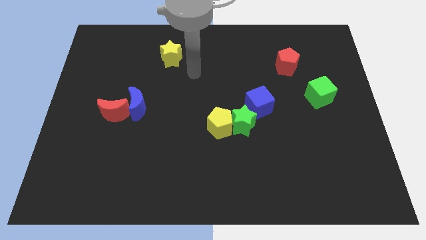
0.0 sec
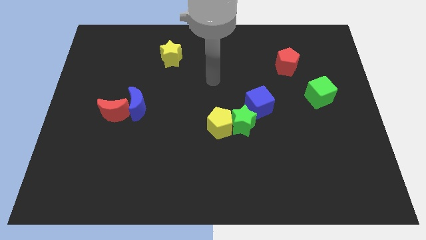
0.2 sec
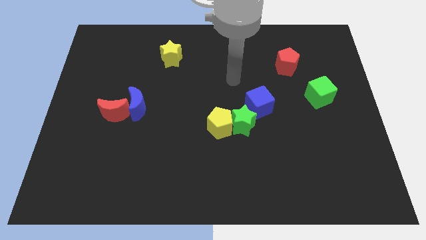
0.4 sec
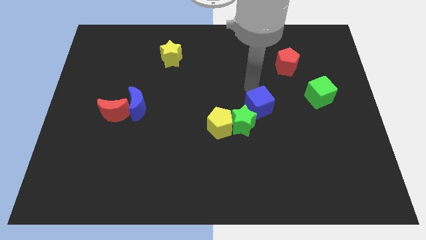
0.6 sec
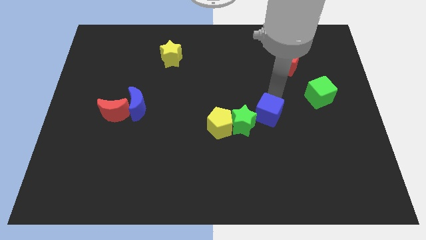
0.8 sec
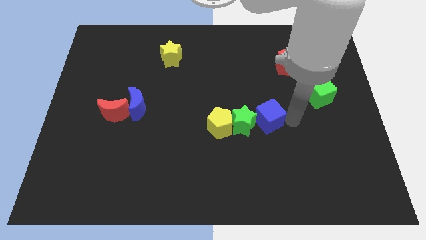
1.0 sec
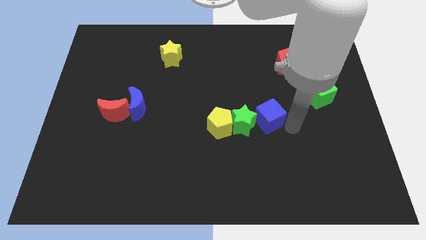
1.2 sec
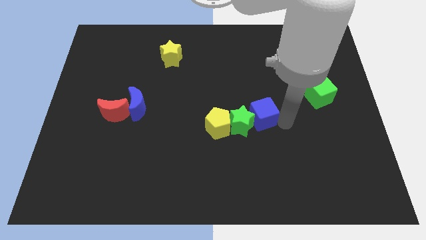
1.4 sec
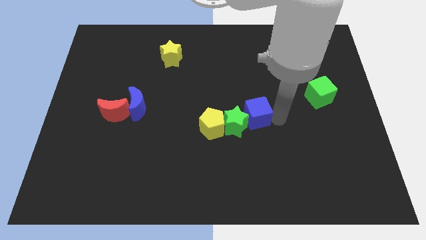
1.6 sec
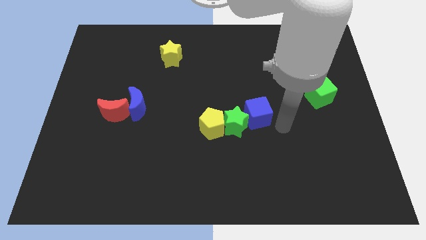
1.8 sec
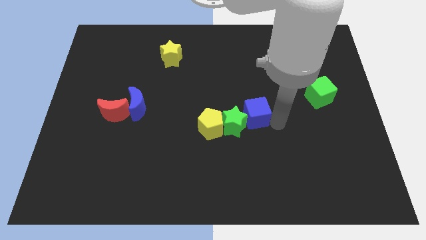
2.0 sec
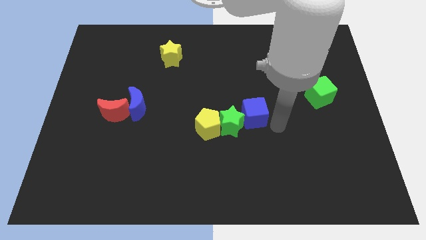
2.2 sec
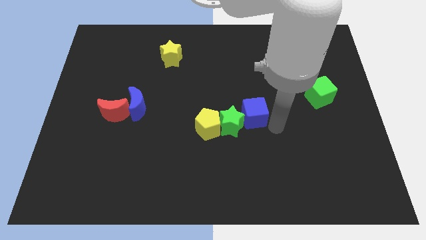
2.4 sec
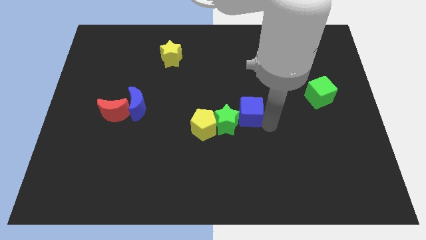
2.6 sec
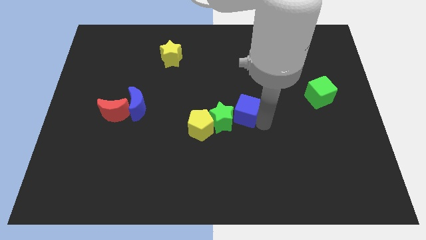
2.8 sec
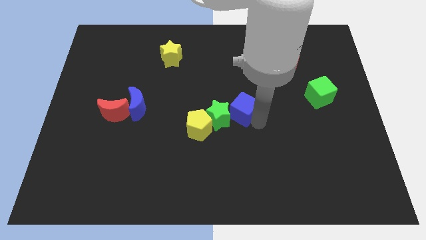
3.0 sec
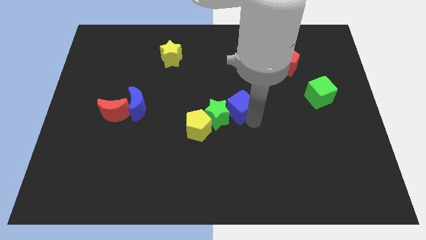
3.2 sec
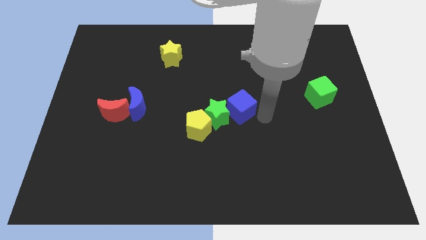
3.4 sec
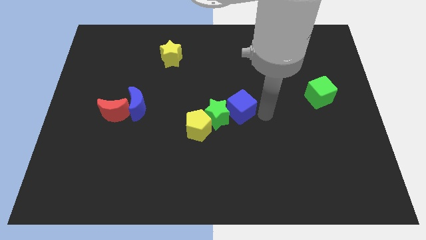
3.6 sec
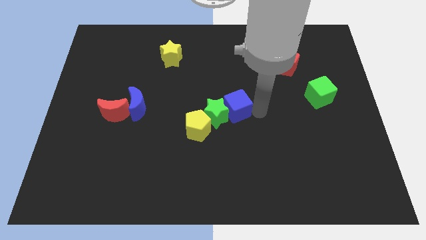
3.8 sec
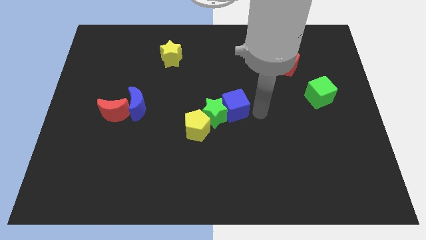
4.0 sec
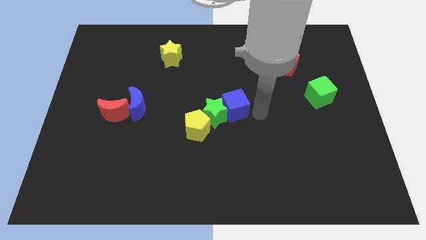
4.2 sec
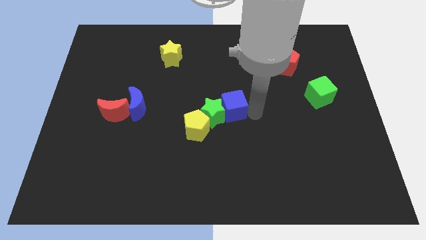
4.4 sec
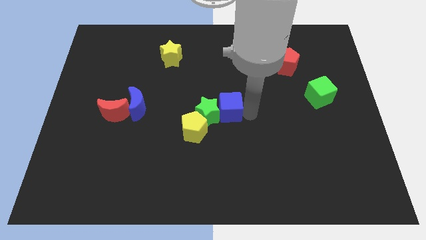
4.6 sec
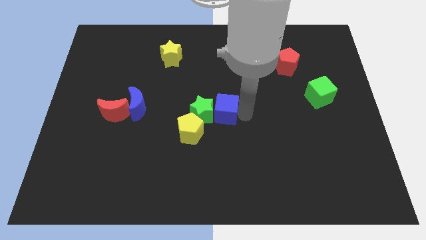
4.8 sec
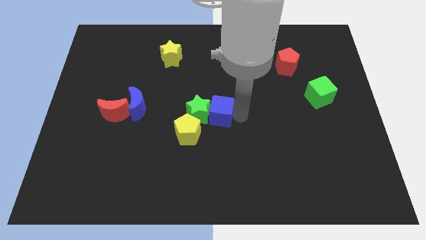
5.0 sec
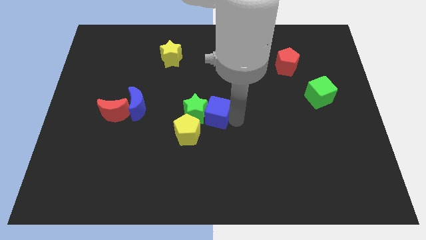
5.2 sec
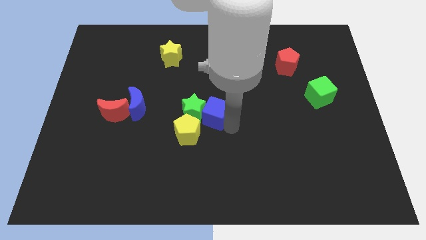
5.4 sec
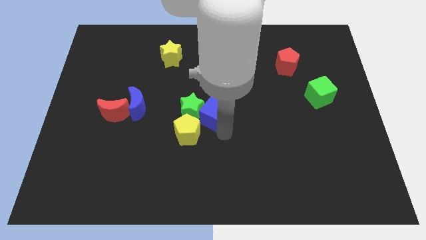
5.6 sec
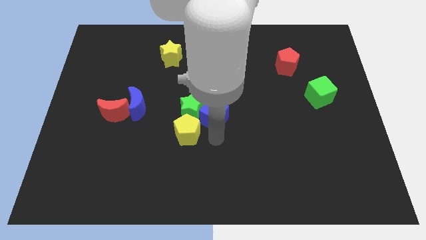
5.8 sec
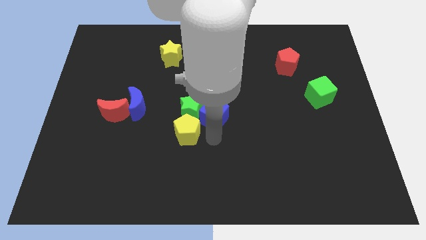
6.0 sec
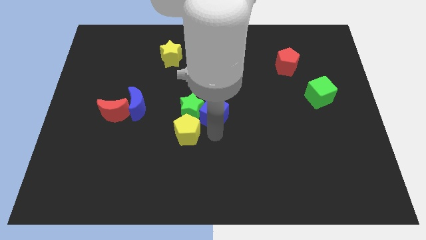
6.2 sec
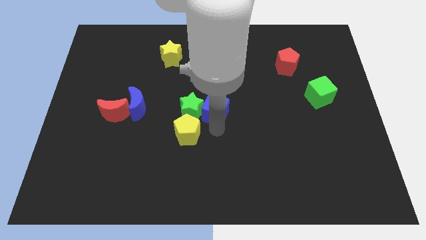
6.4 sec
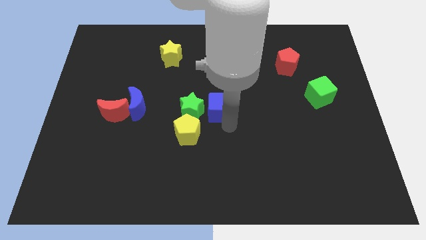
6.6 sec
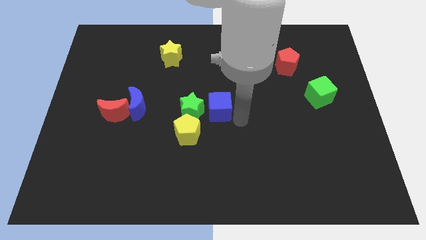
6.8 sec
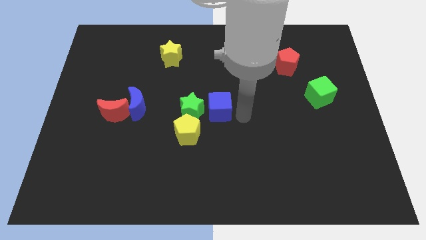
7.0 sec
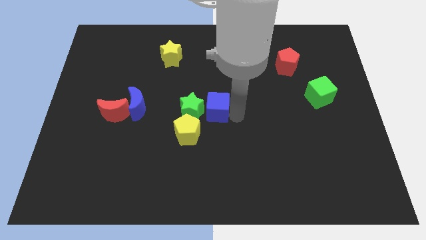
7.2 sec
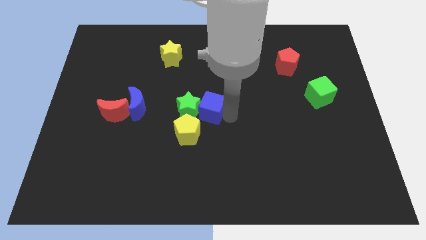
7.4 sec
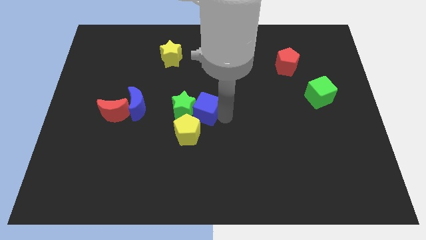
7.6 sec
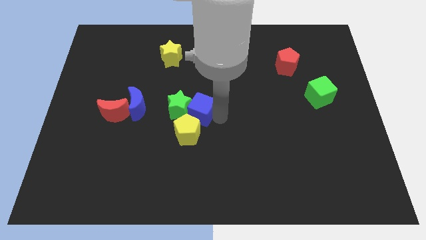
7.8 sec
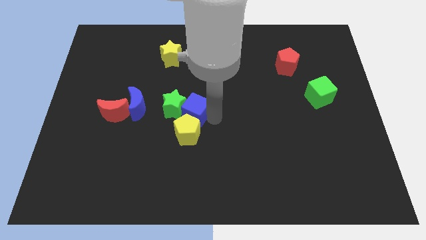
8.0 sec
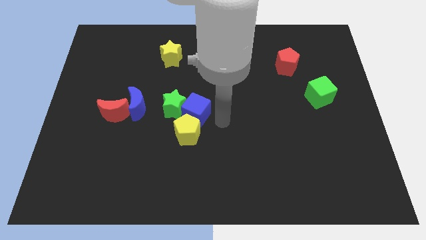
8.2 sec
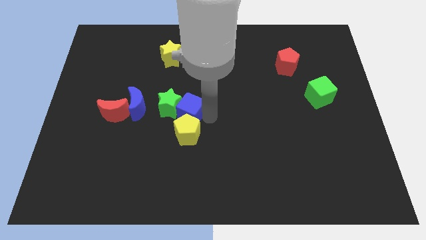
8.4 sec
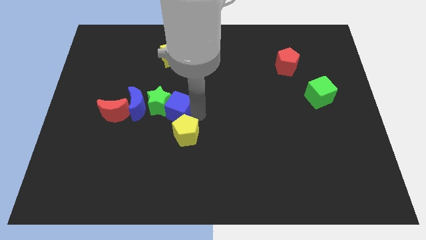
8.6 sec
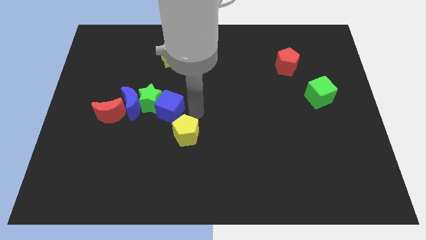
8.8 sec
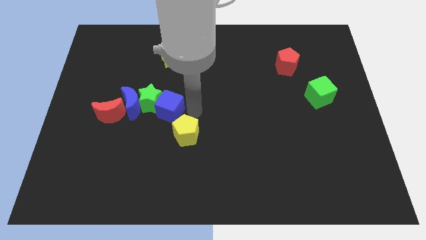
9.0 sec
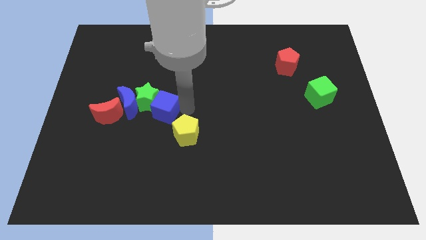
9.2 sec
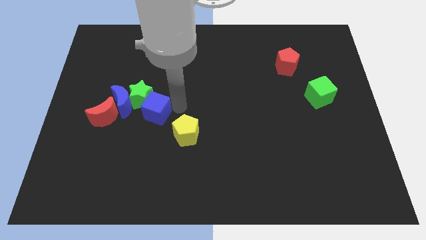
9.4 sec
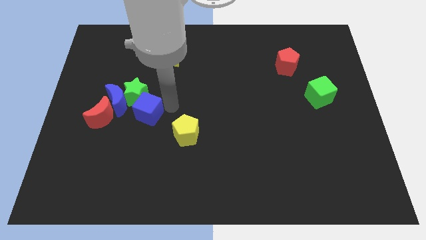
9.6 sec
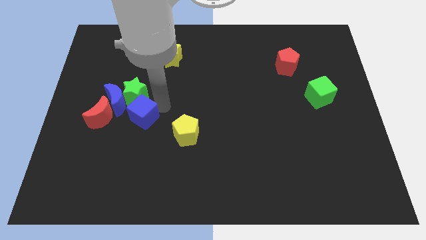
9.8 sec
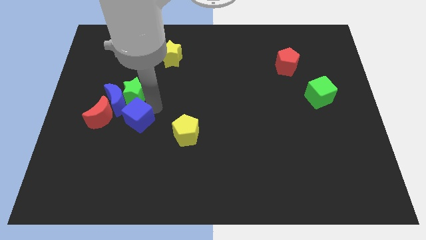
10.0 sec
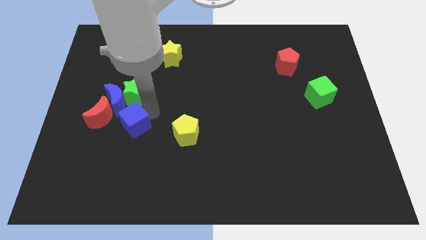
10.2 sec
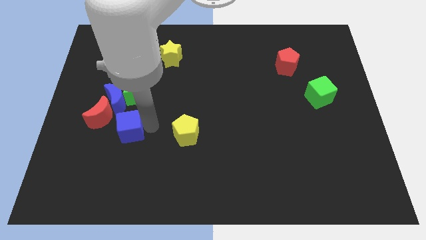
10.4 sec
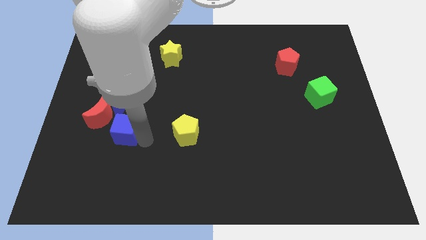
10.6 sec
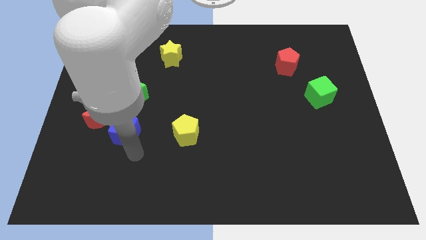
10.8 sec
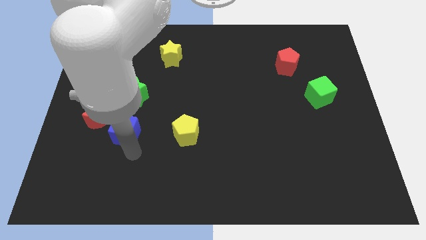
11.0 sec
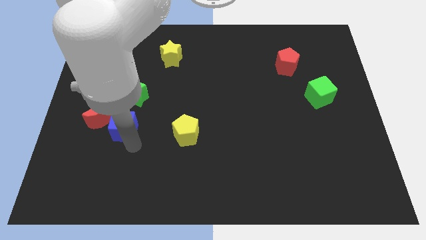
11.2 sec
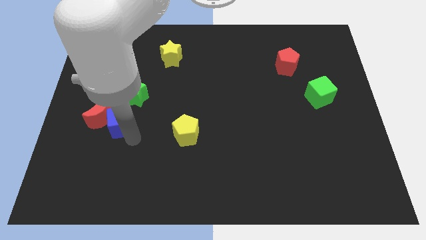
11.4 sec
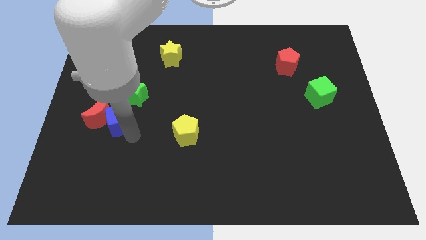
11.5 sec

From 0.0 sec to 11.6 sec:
put the blue cube next to the blue moon

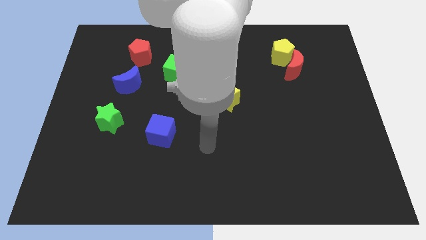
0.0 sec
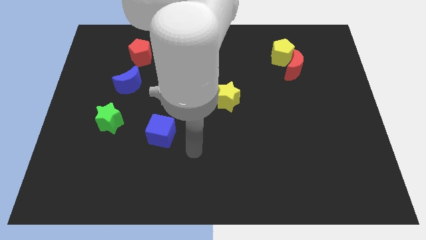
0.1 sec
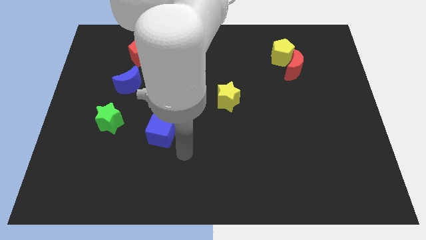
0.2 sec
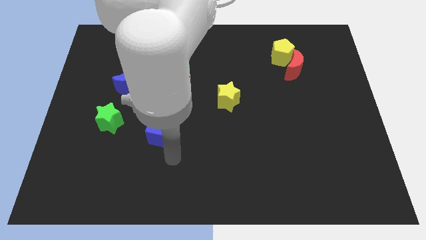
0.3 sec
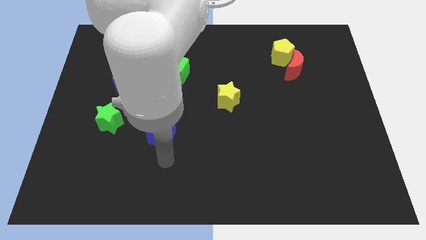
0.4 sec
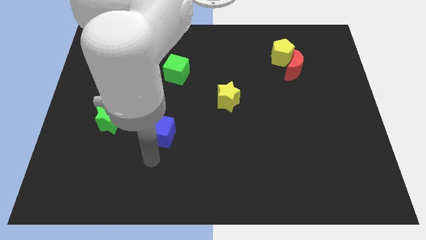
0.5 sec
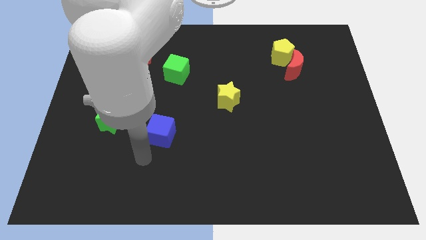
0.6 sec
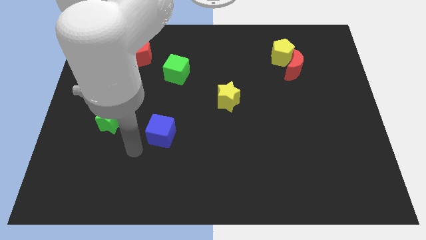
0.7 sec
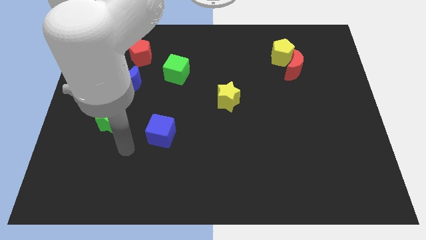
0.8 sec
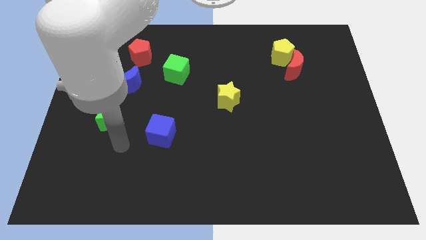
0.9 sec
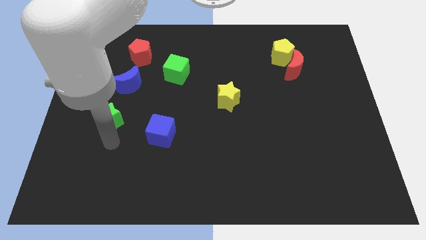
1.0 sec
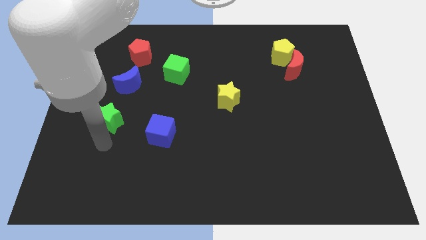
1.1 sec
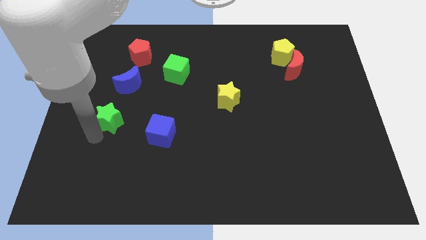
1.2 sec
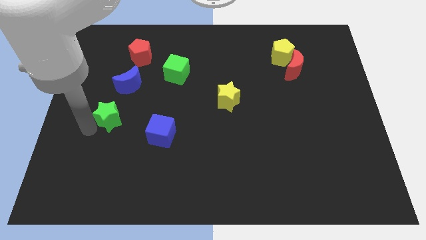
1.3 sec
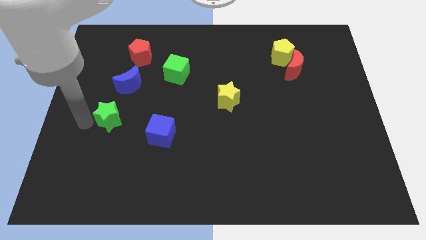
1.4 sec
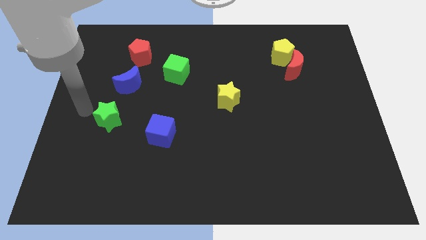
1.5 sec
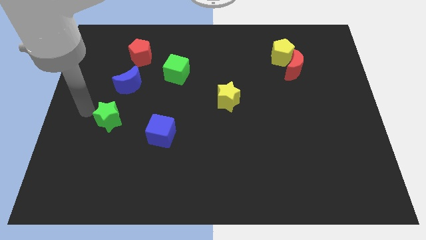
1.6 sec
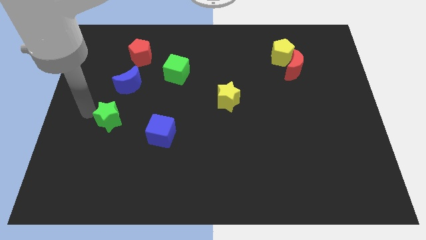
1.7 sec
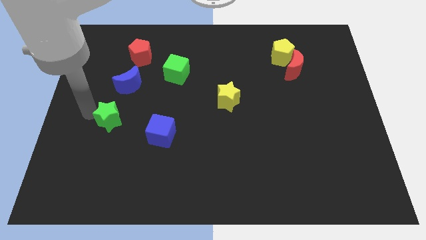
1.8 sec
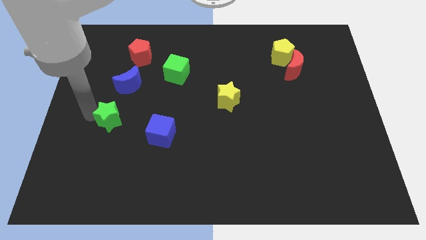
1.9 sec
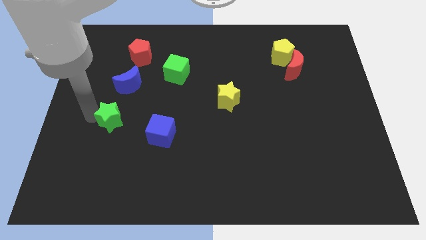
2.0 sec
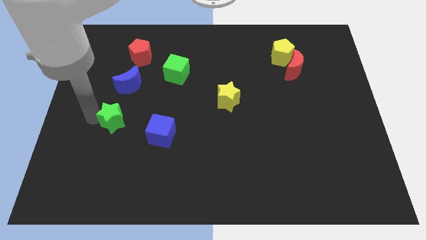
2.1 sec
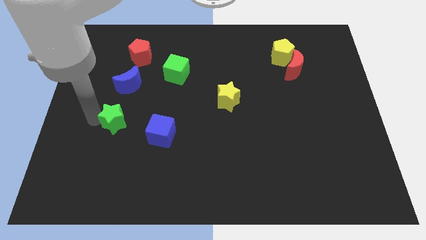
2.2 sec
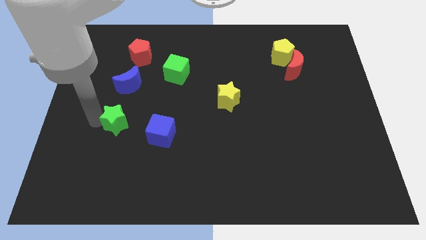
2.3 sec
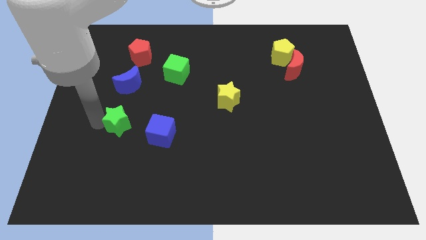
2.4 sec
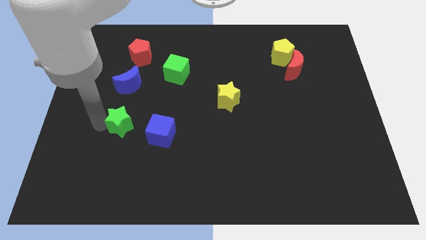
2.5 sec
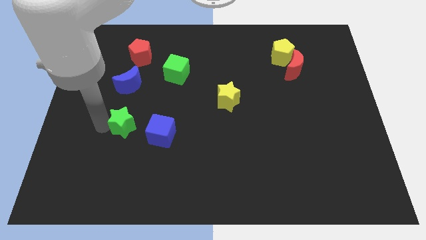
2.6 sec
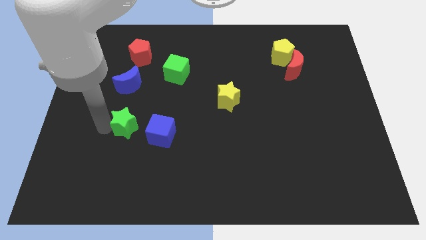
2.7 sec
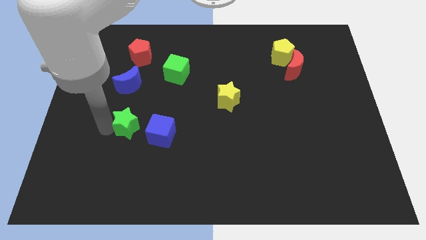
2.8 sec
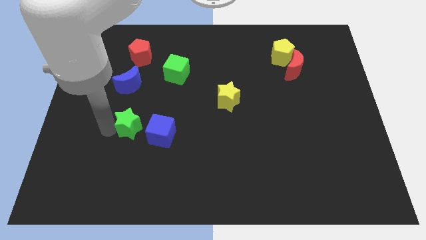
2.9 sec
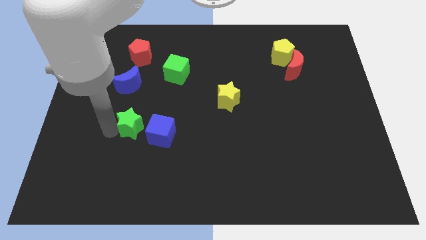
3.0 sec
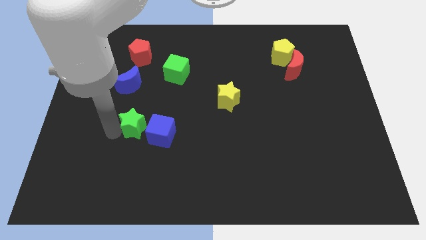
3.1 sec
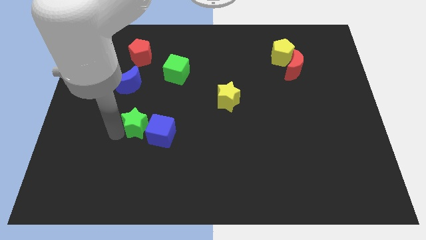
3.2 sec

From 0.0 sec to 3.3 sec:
move the green star close to the blue cube
